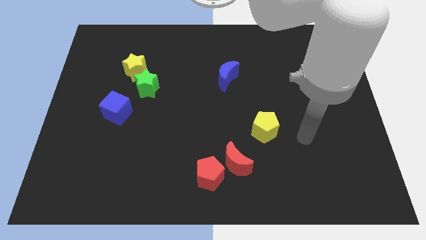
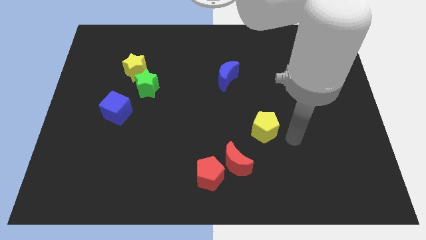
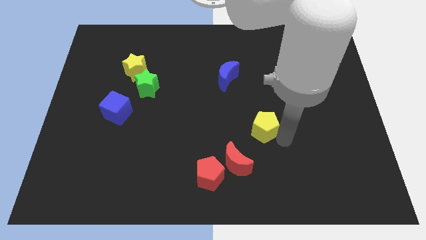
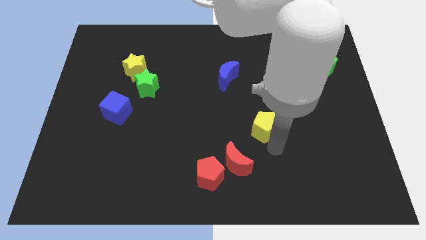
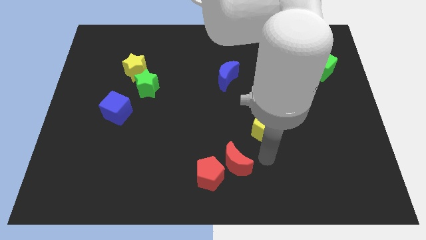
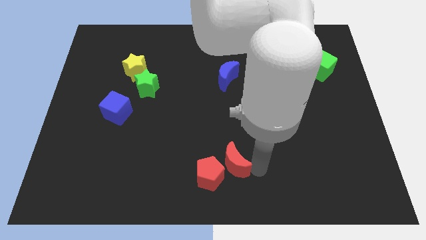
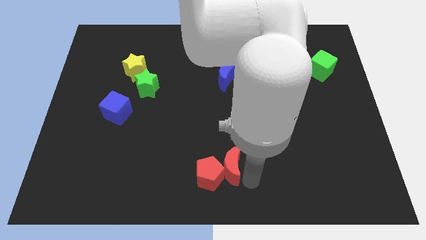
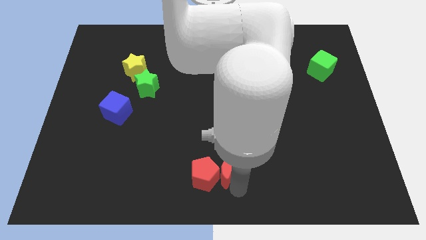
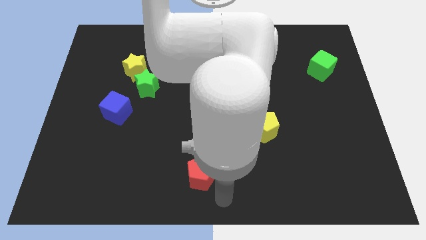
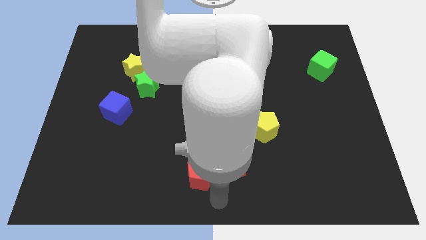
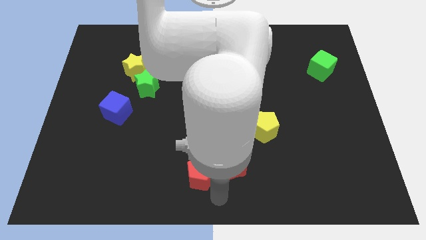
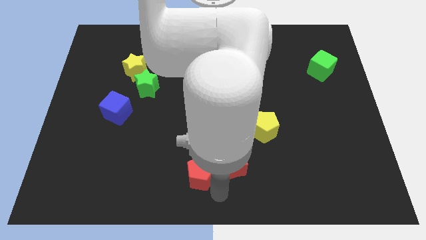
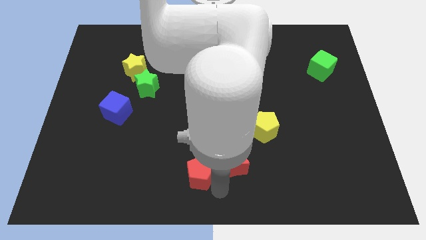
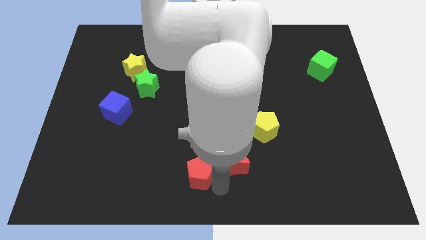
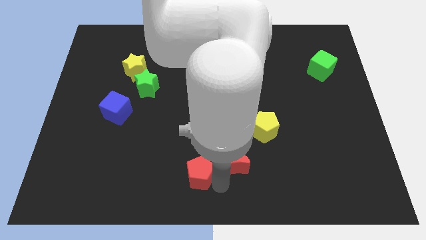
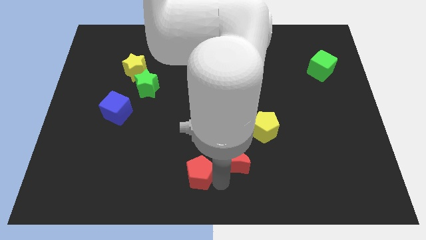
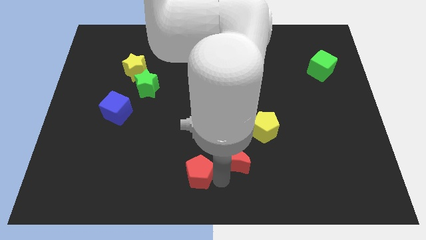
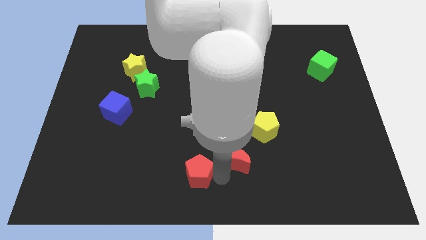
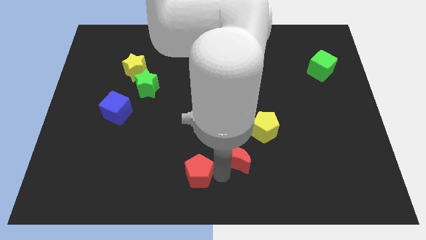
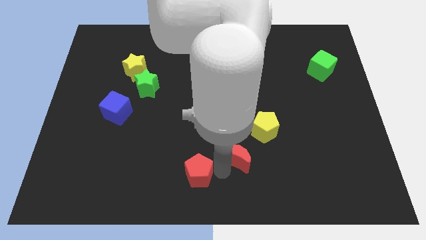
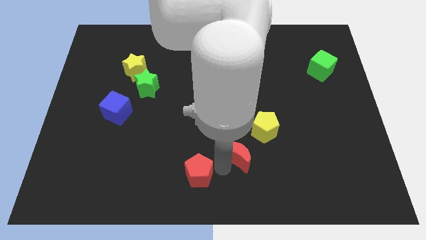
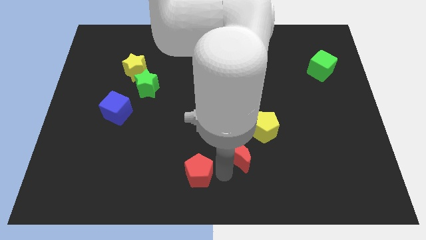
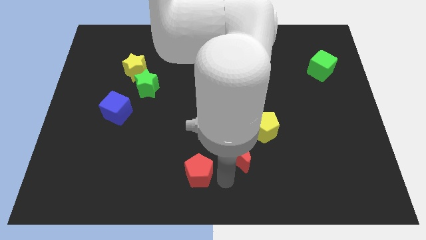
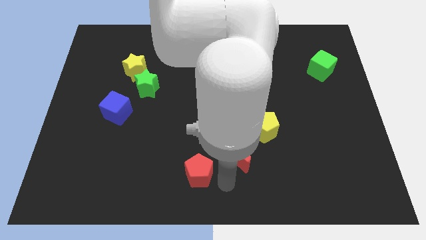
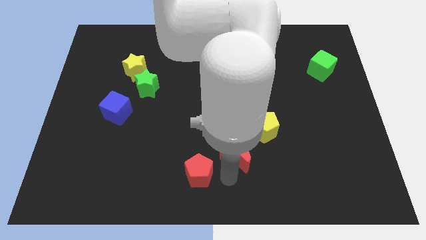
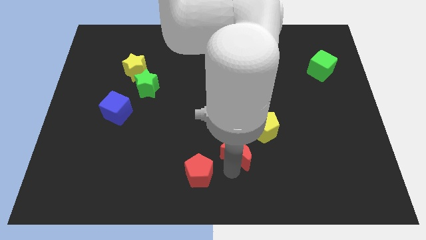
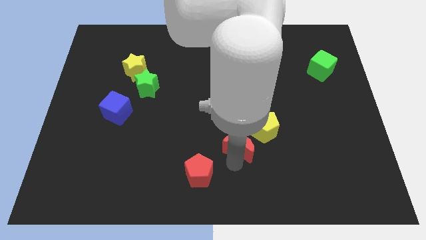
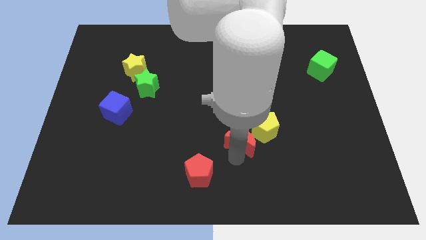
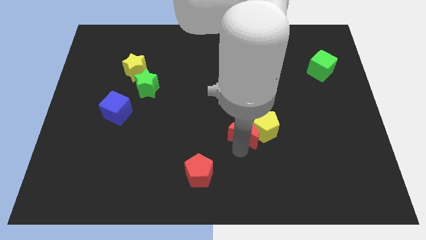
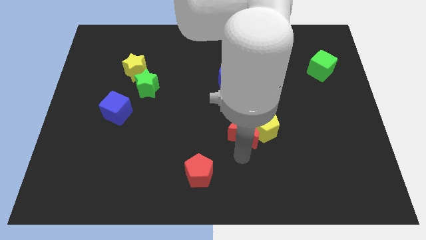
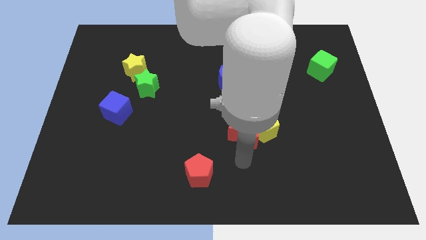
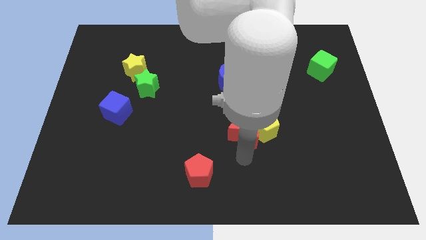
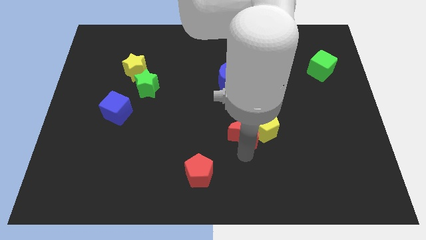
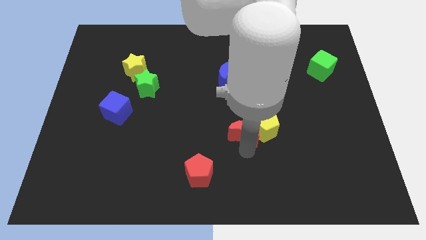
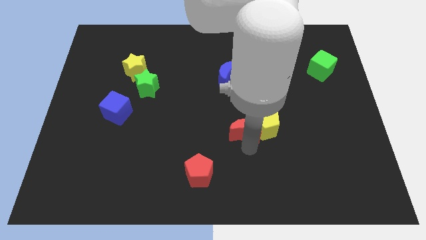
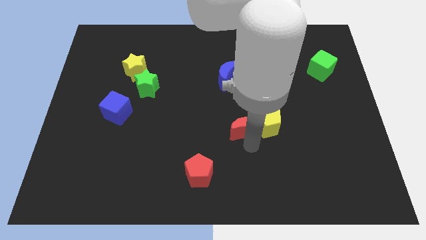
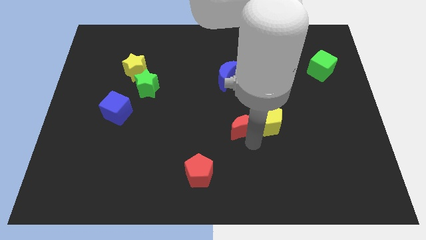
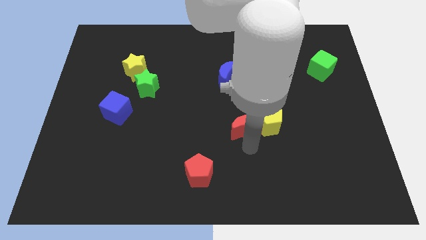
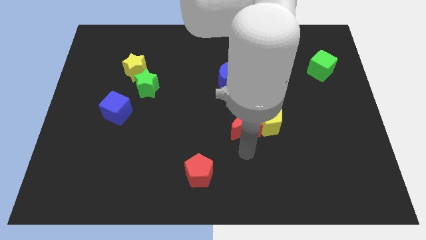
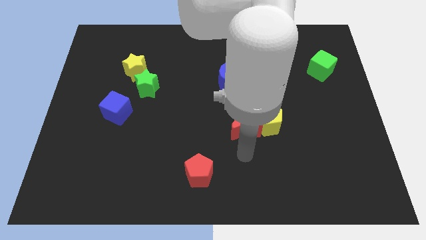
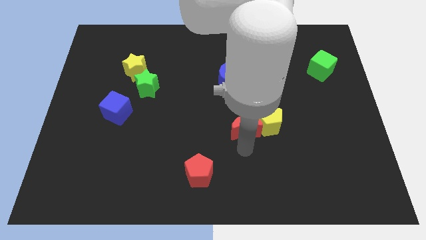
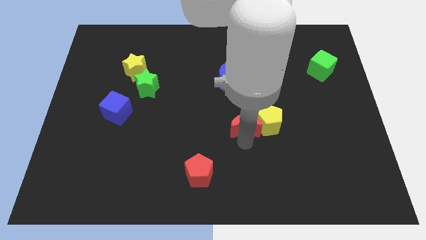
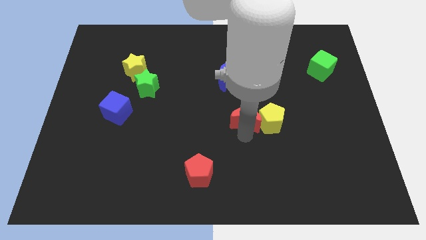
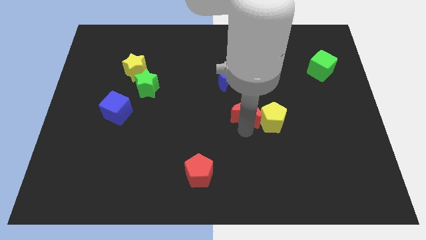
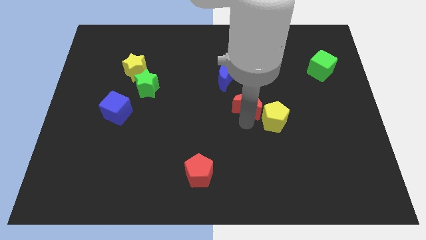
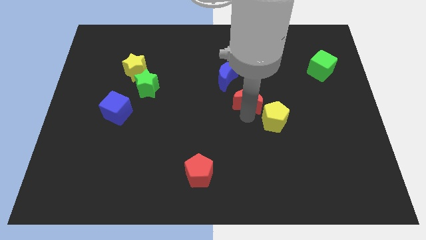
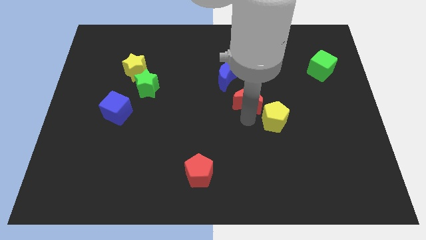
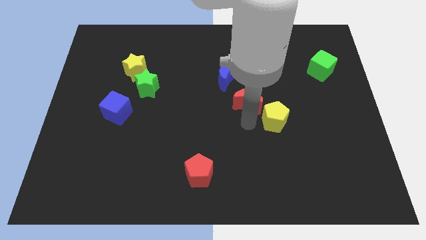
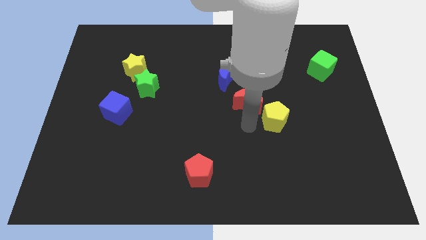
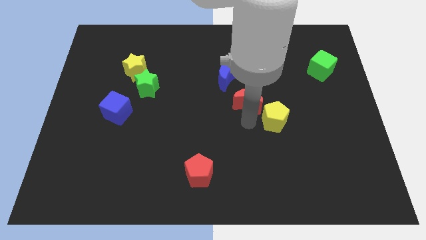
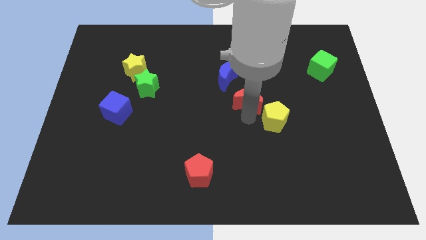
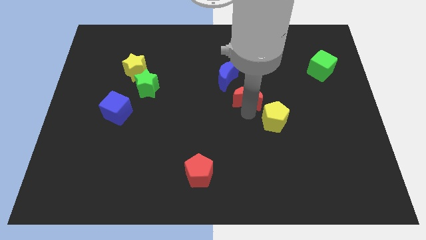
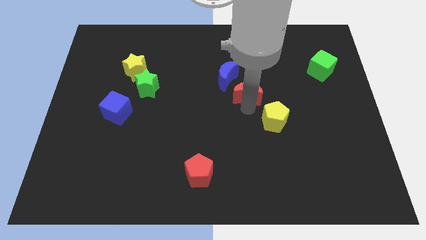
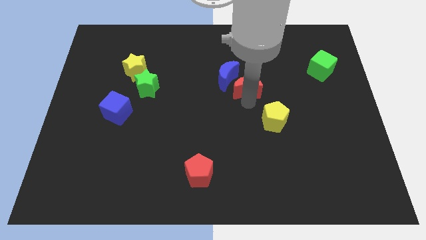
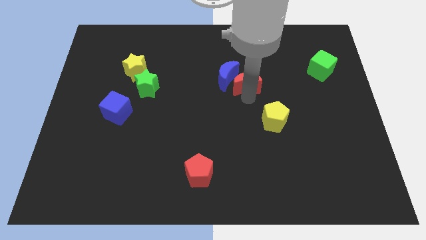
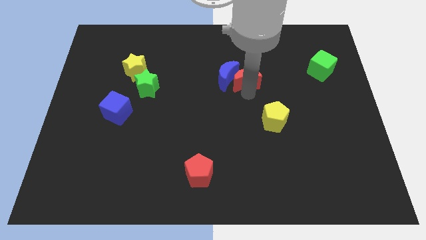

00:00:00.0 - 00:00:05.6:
move the red moon diagonally up and to the right of the blue moon

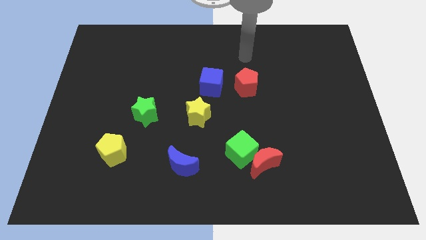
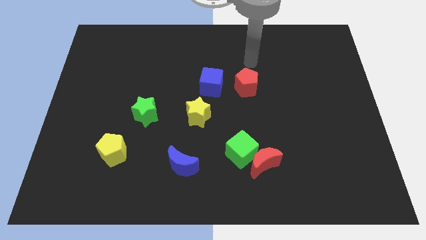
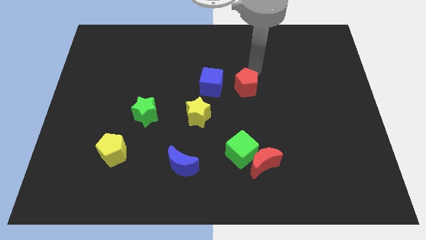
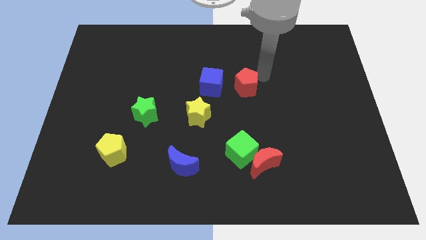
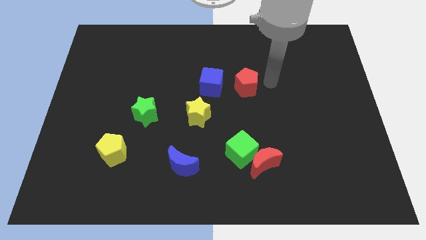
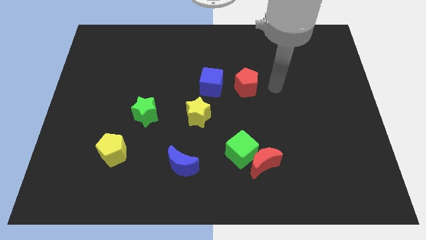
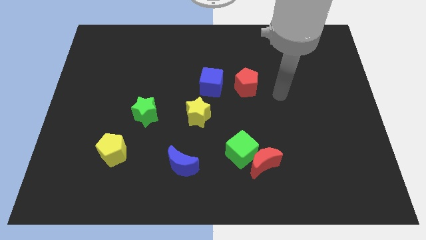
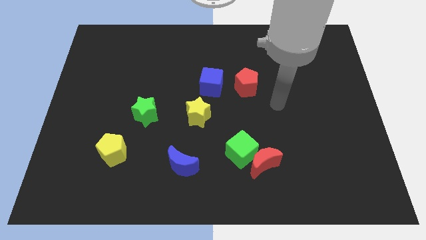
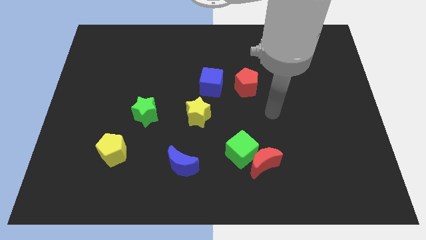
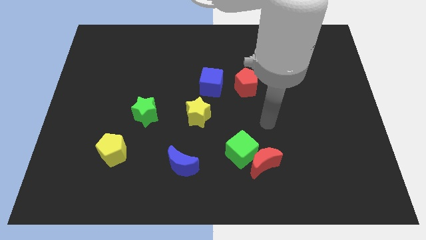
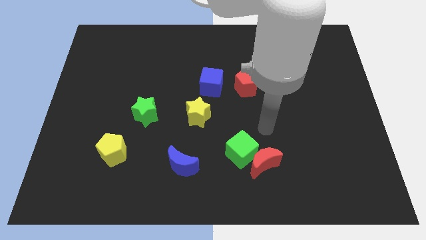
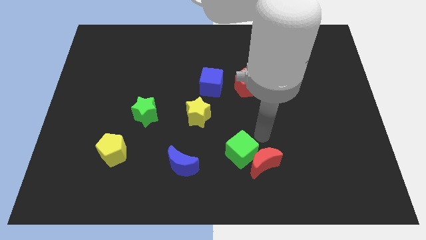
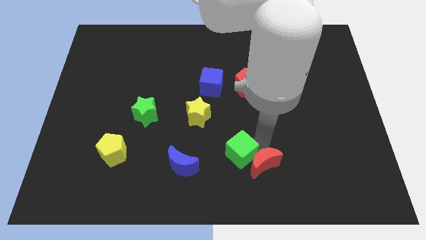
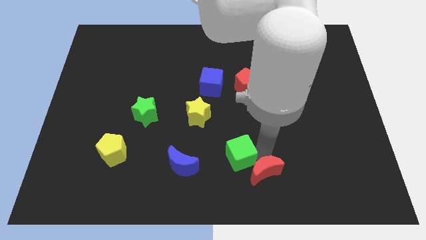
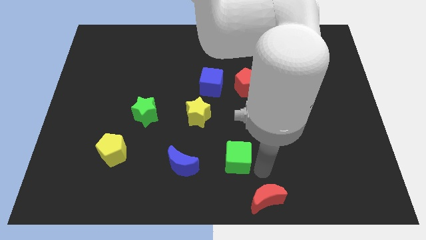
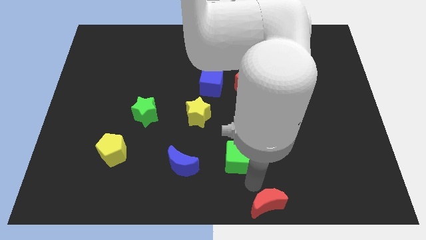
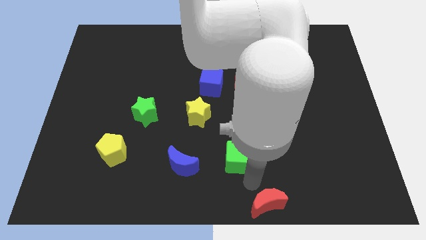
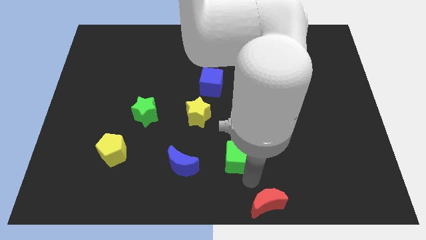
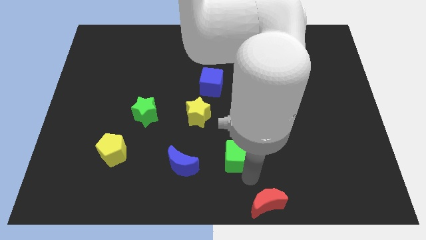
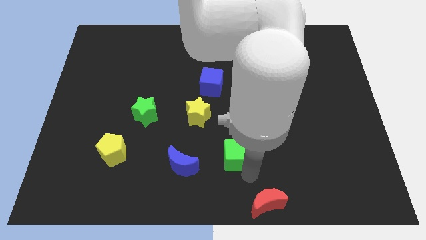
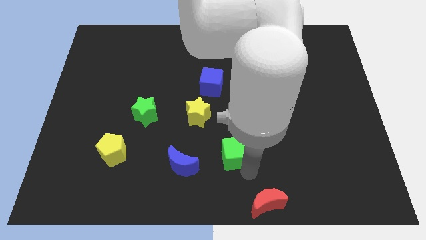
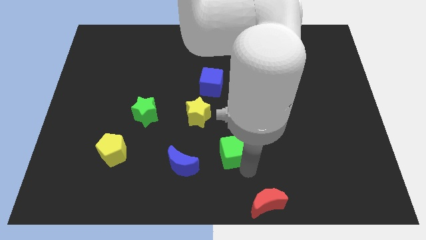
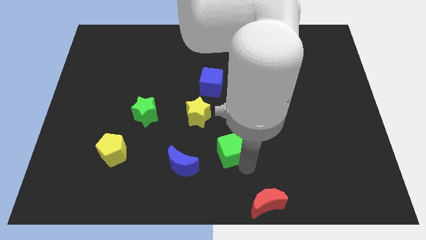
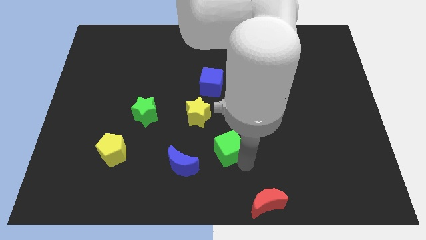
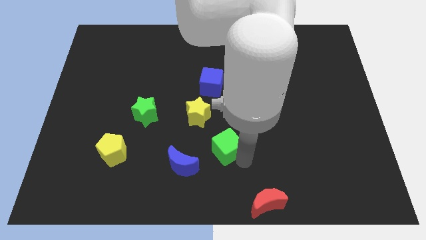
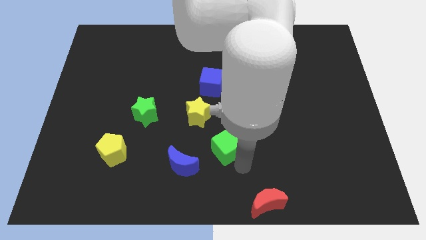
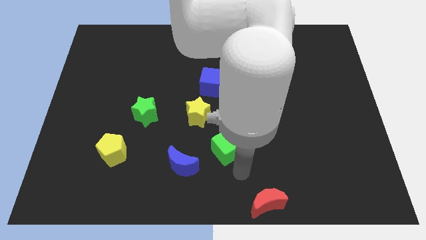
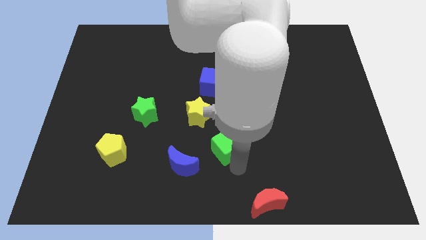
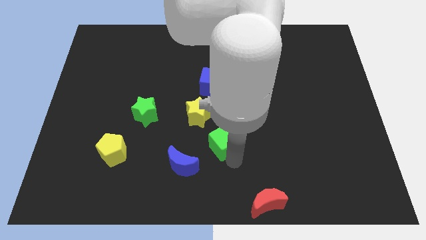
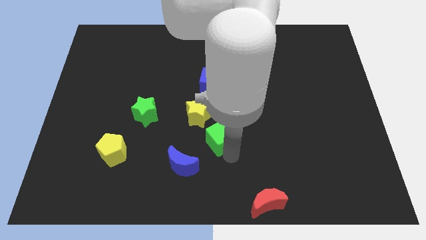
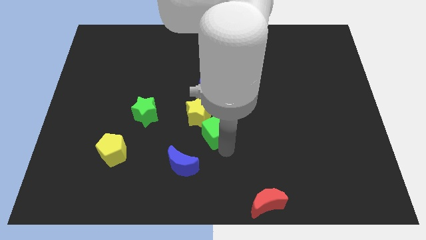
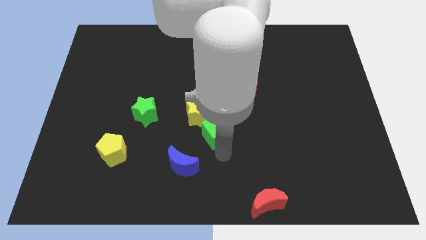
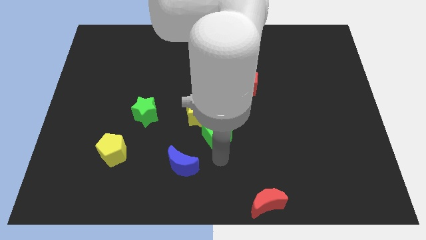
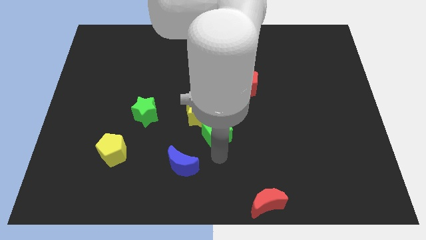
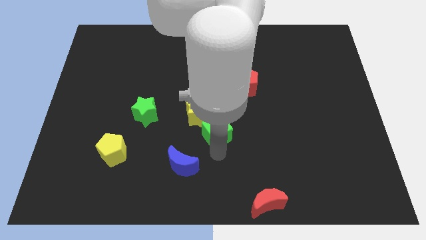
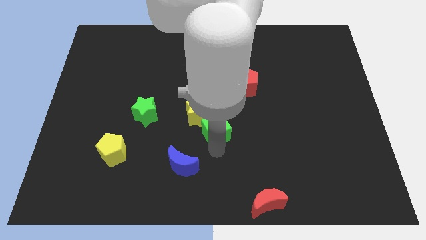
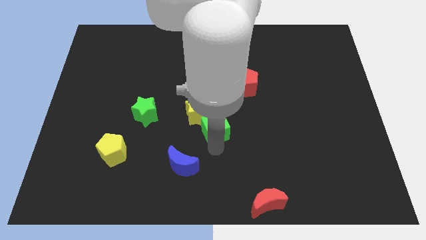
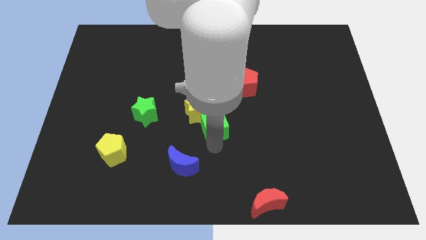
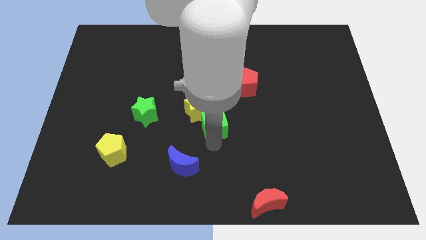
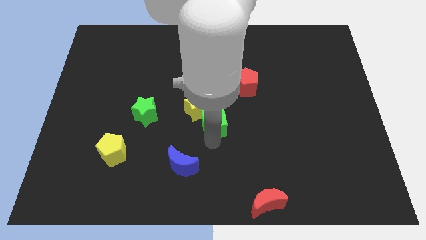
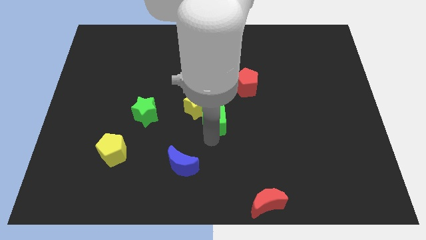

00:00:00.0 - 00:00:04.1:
move the green cube to the right side of the green star
